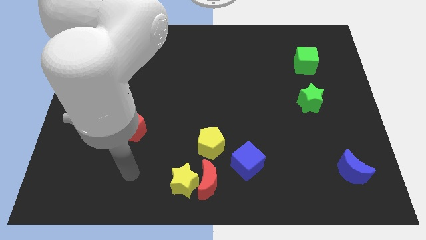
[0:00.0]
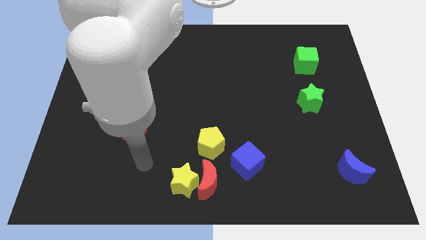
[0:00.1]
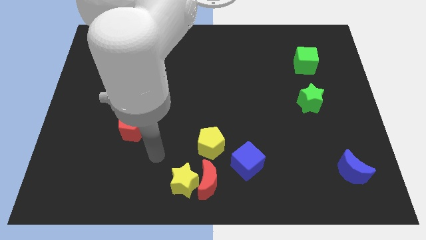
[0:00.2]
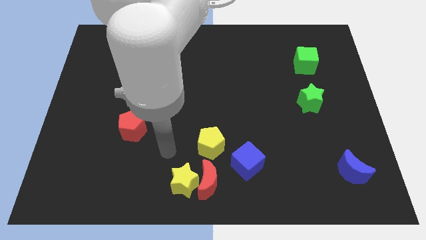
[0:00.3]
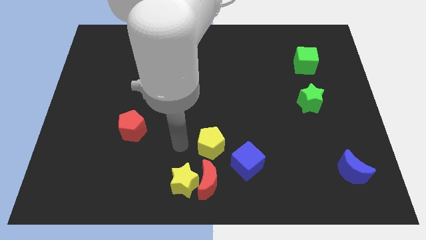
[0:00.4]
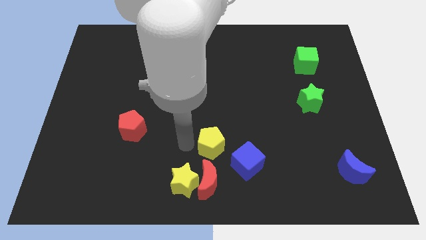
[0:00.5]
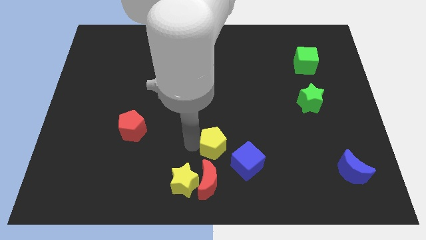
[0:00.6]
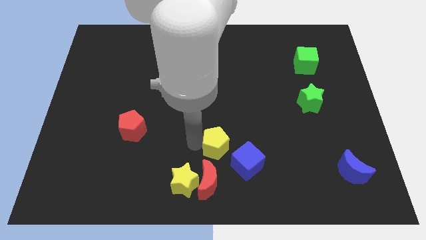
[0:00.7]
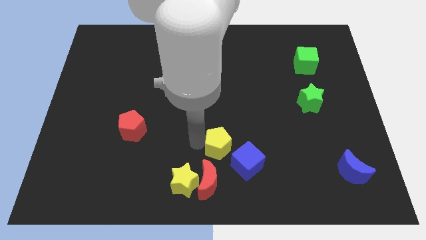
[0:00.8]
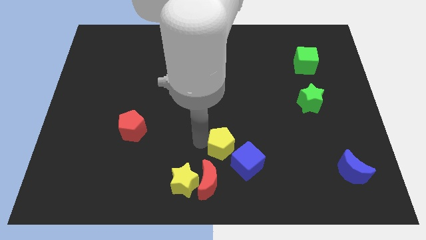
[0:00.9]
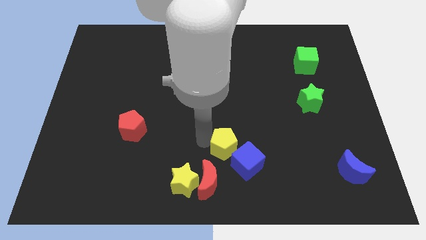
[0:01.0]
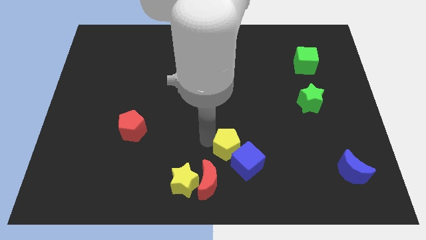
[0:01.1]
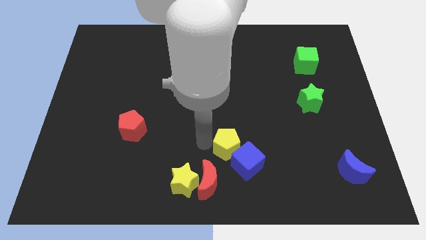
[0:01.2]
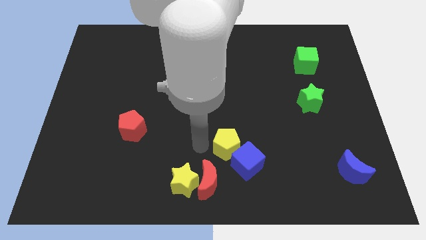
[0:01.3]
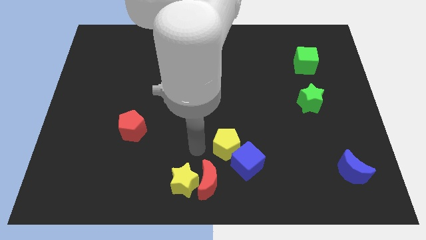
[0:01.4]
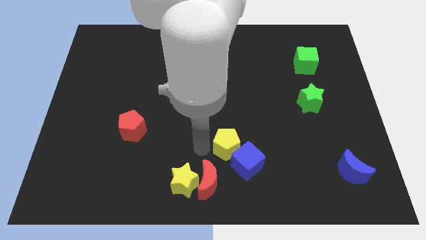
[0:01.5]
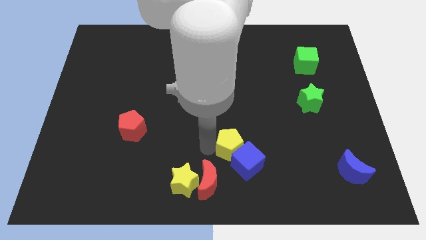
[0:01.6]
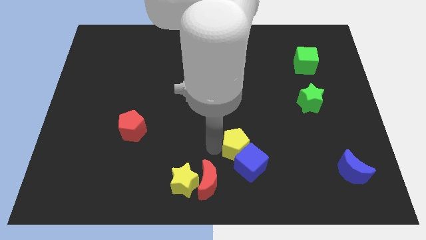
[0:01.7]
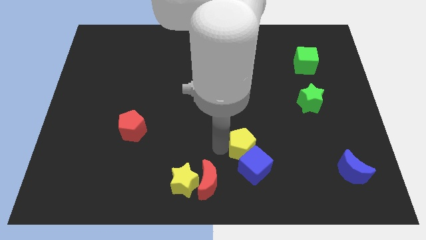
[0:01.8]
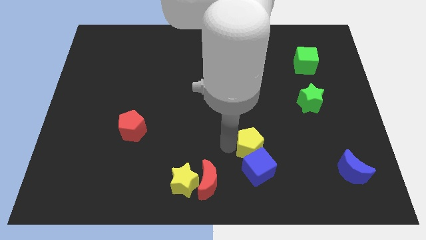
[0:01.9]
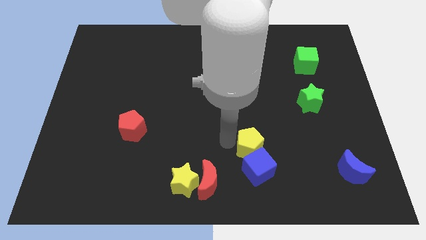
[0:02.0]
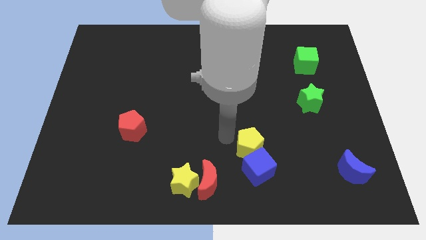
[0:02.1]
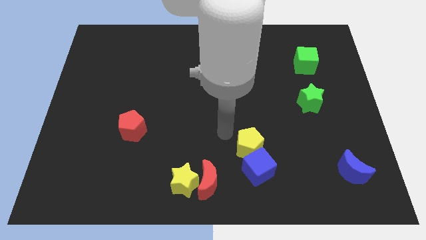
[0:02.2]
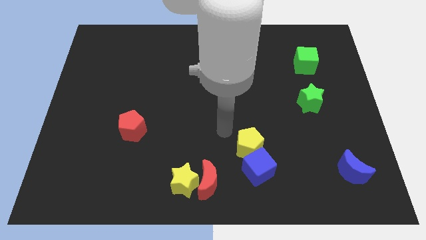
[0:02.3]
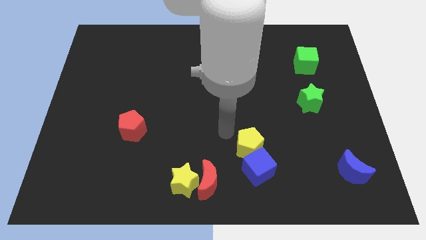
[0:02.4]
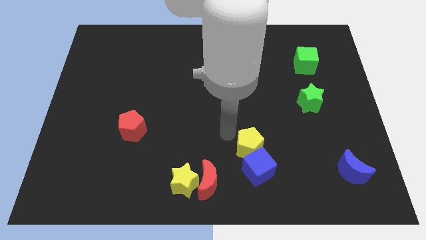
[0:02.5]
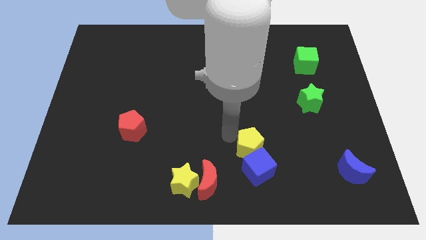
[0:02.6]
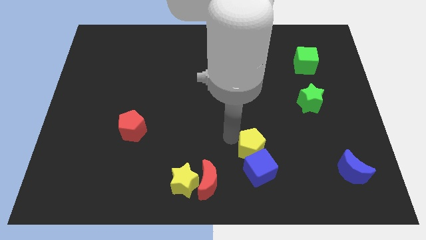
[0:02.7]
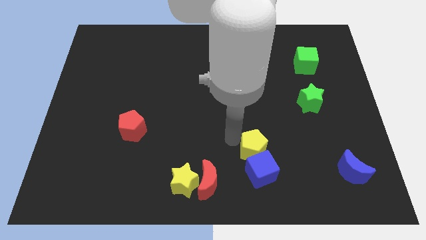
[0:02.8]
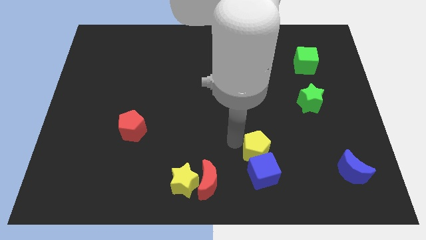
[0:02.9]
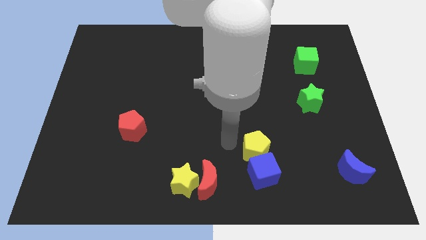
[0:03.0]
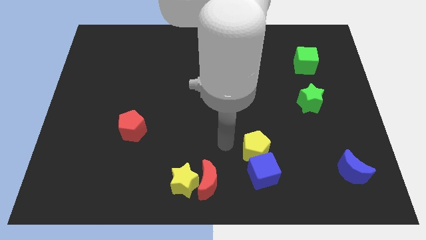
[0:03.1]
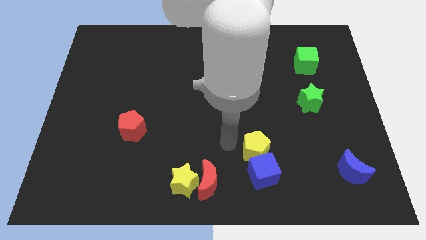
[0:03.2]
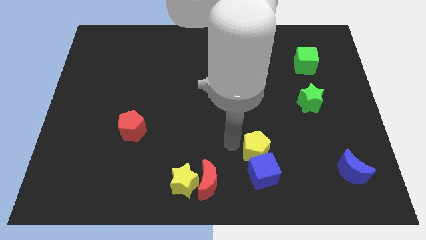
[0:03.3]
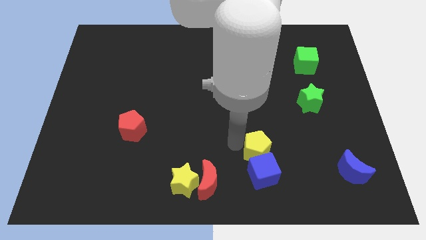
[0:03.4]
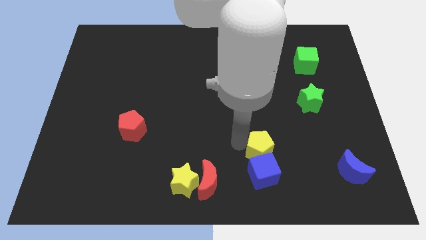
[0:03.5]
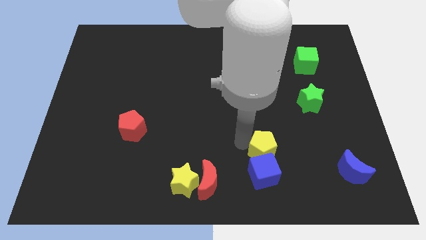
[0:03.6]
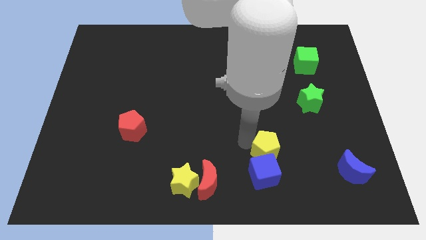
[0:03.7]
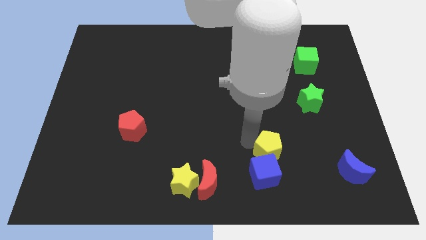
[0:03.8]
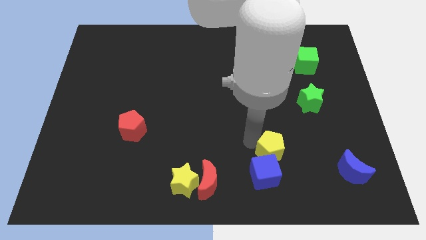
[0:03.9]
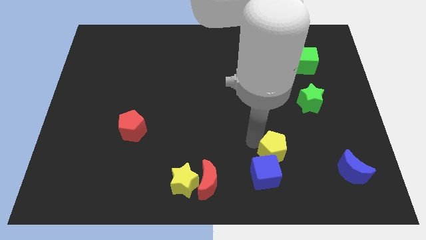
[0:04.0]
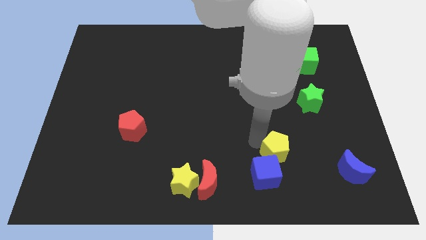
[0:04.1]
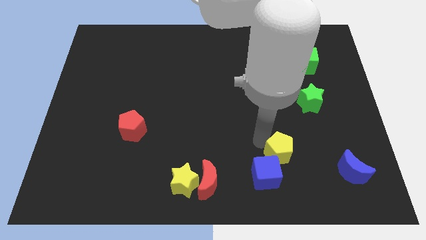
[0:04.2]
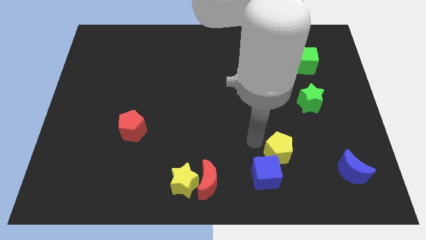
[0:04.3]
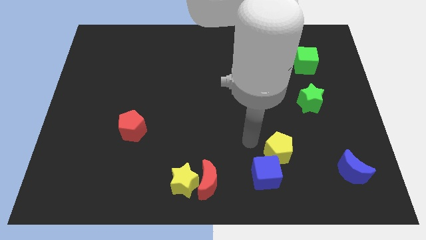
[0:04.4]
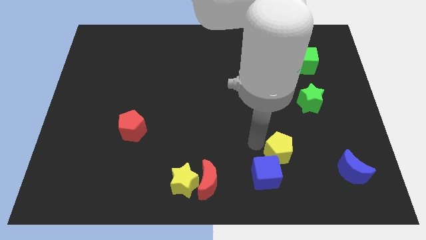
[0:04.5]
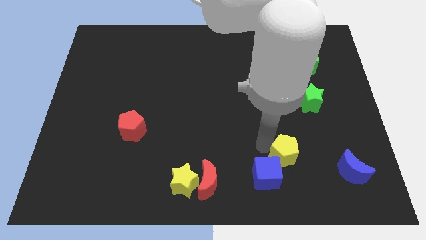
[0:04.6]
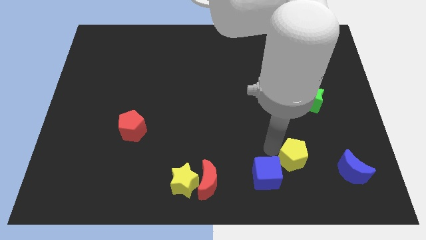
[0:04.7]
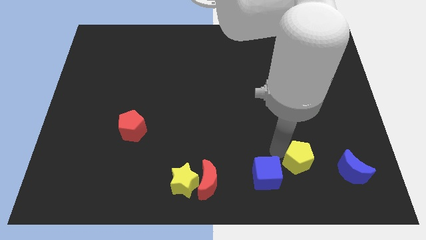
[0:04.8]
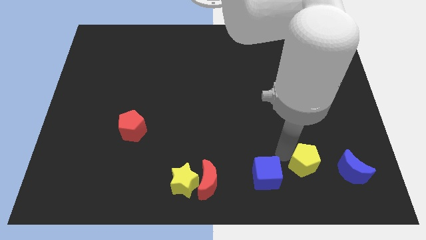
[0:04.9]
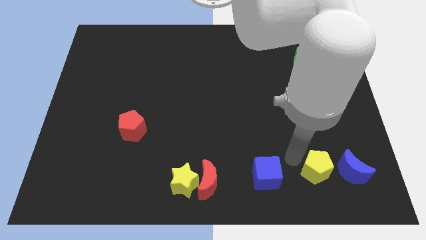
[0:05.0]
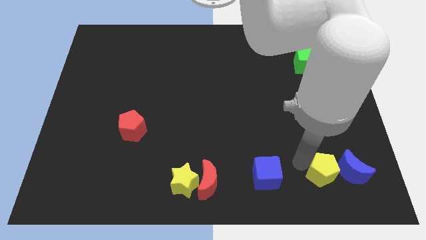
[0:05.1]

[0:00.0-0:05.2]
push the yellow pentagon next to the blue moon

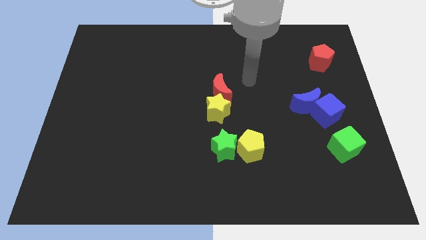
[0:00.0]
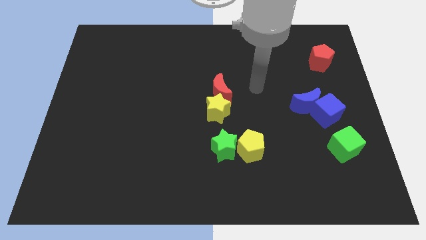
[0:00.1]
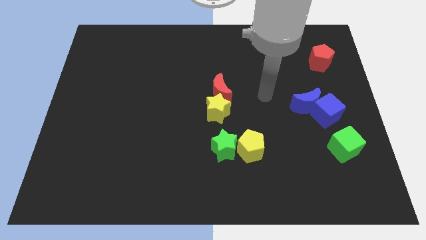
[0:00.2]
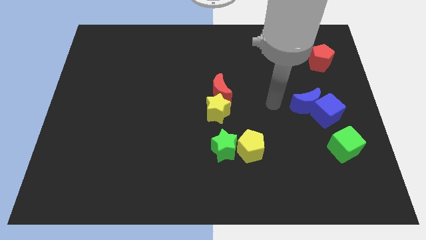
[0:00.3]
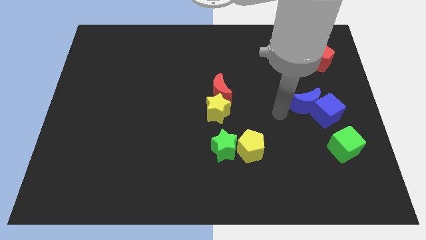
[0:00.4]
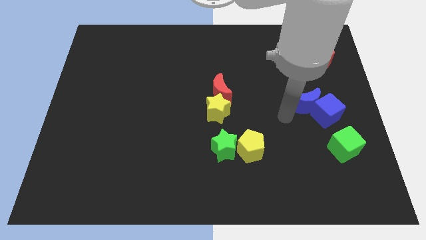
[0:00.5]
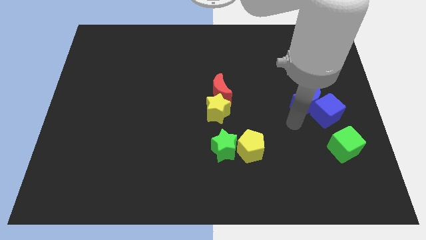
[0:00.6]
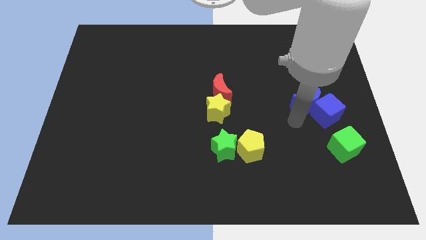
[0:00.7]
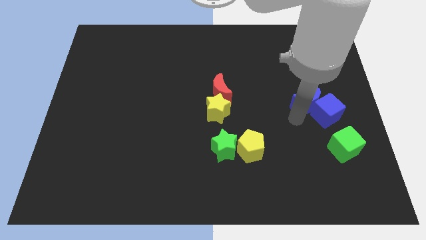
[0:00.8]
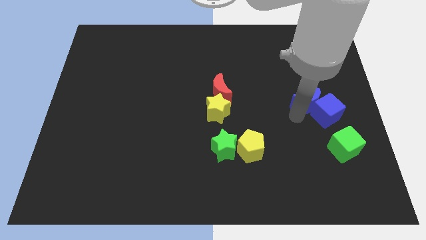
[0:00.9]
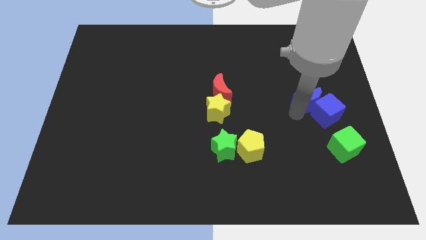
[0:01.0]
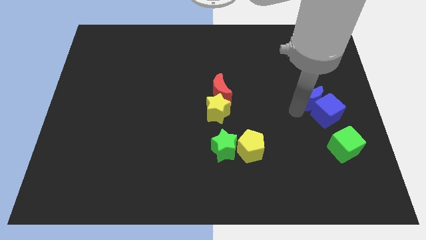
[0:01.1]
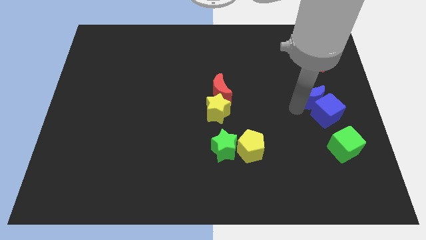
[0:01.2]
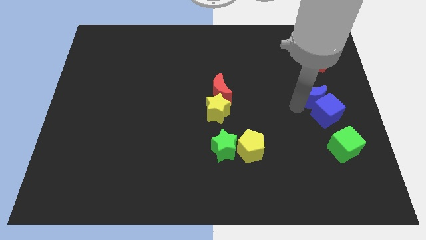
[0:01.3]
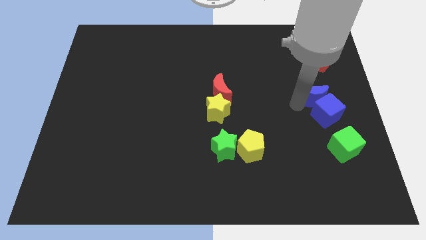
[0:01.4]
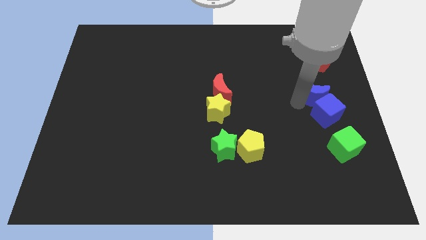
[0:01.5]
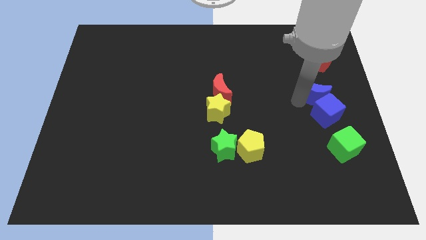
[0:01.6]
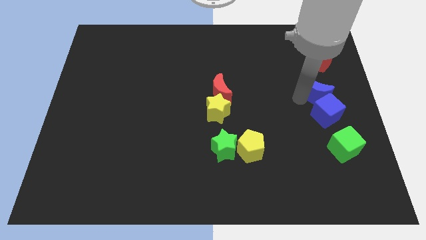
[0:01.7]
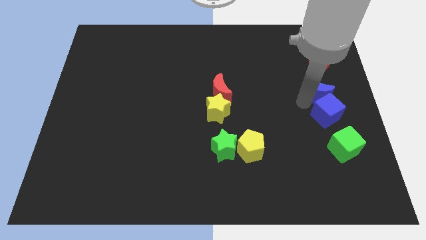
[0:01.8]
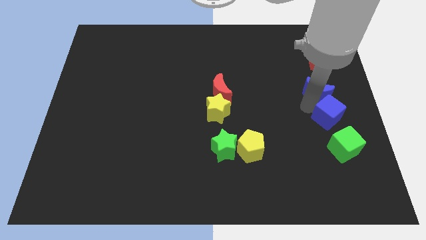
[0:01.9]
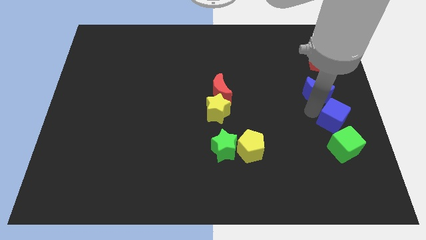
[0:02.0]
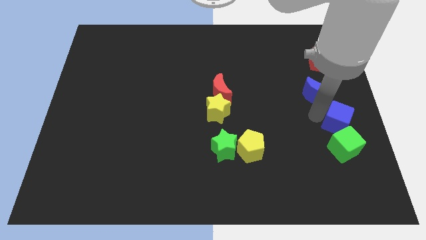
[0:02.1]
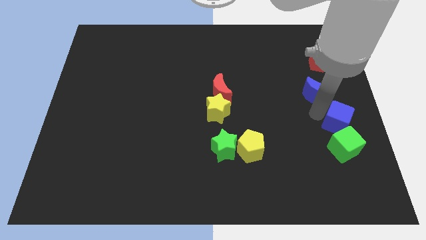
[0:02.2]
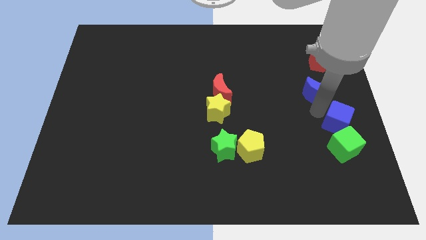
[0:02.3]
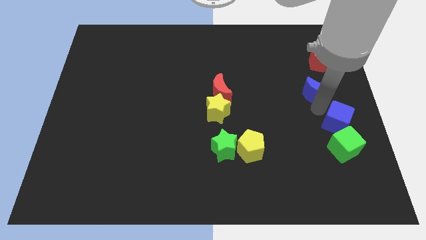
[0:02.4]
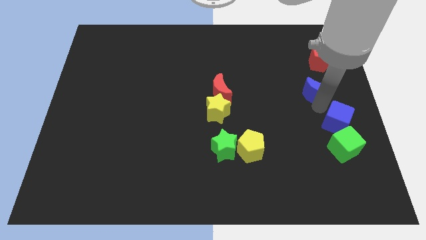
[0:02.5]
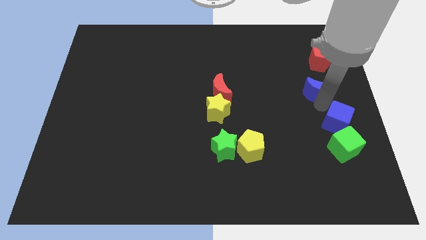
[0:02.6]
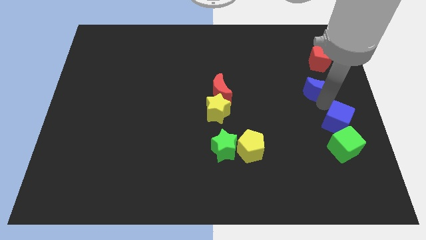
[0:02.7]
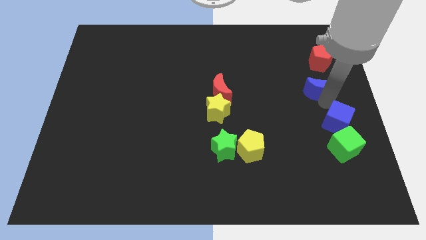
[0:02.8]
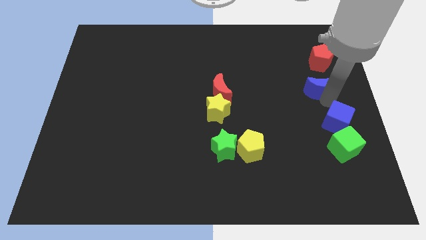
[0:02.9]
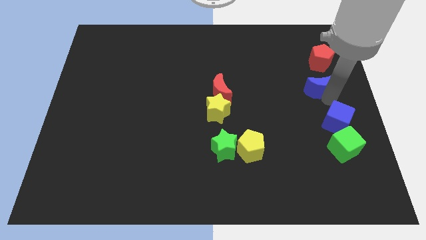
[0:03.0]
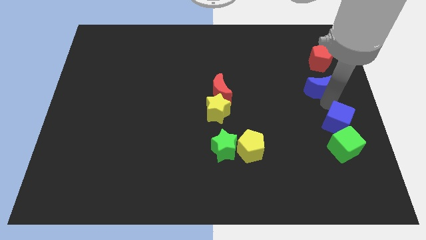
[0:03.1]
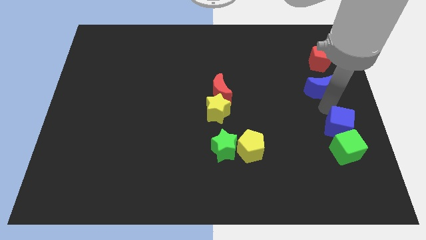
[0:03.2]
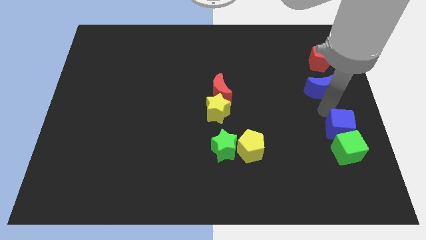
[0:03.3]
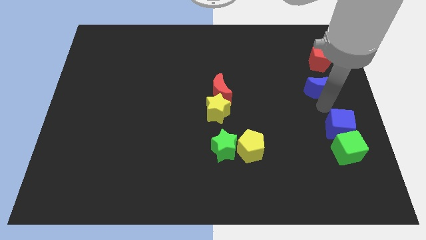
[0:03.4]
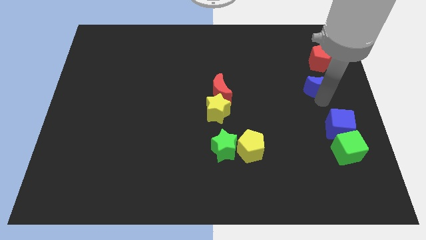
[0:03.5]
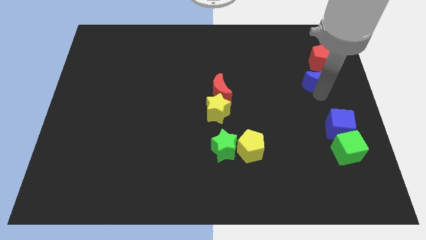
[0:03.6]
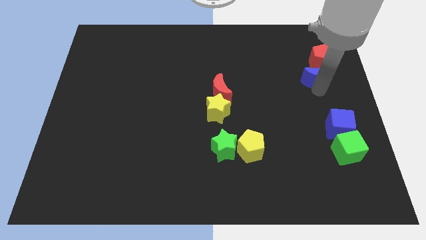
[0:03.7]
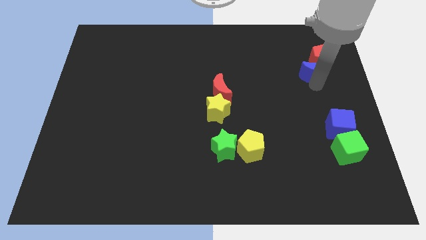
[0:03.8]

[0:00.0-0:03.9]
move the blue moon towards the red pentagon
